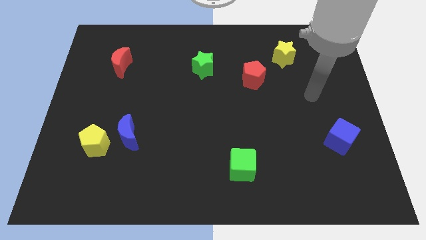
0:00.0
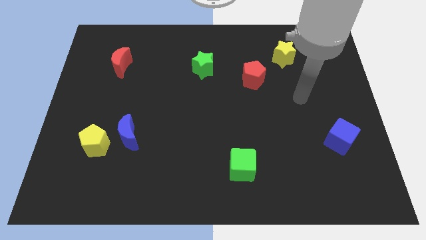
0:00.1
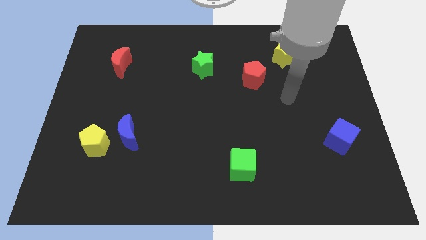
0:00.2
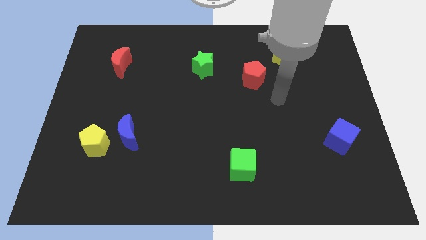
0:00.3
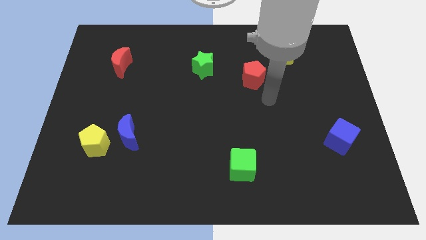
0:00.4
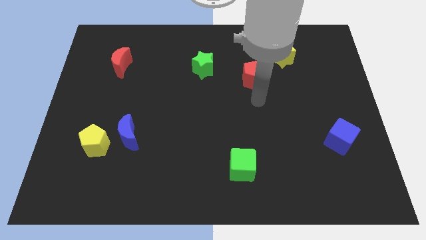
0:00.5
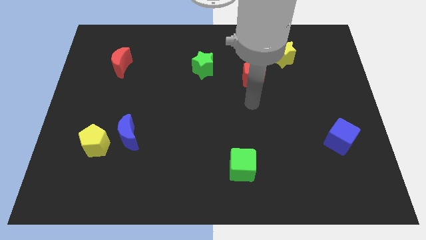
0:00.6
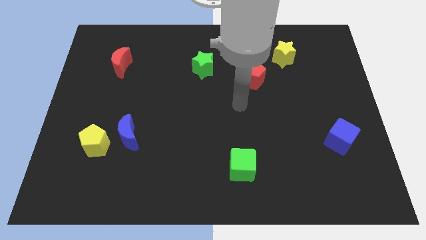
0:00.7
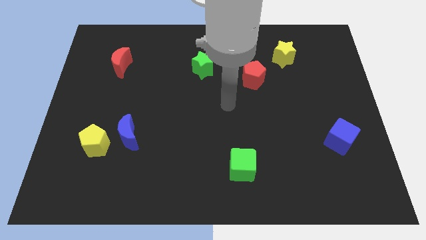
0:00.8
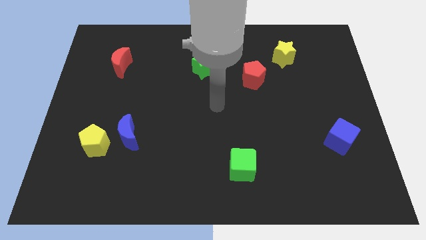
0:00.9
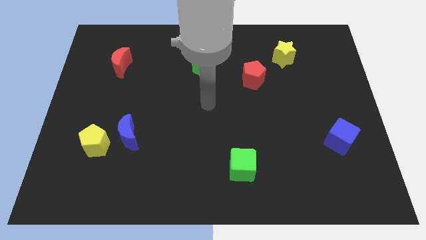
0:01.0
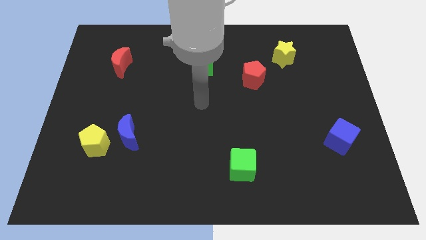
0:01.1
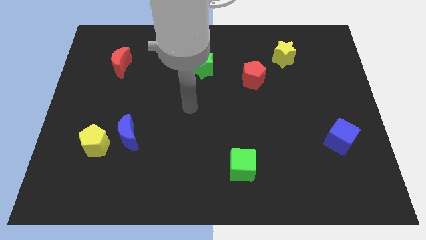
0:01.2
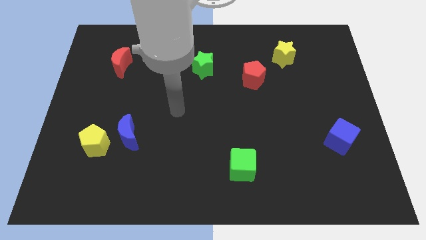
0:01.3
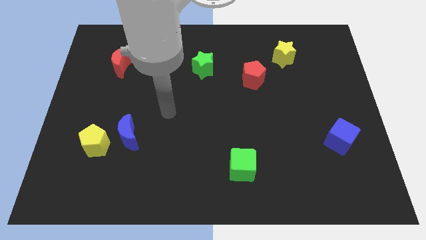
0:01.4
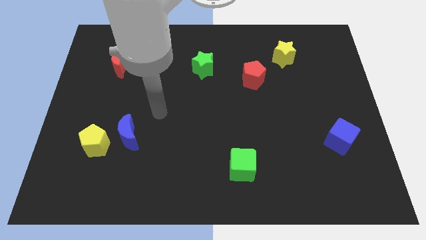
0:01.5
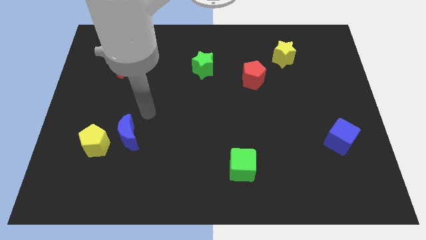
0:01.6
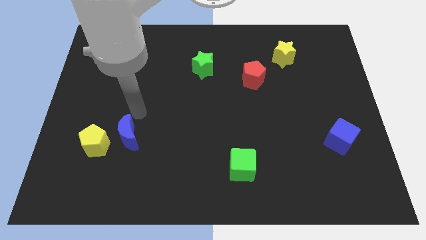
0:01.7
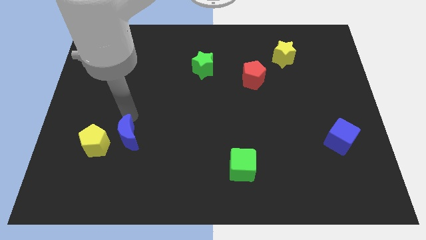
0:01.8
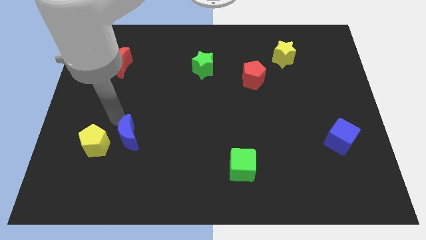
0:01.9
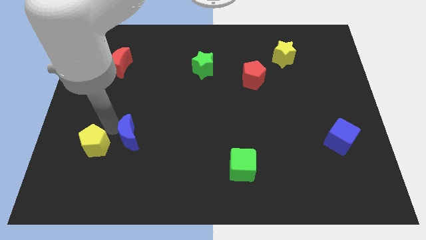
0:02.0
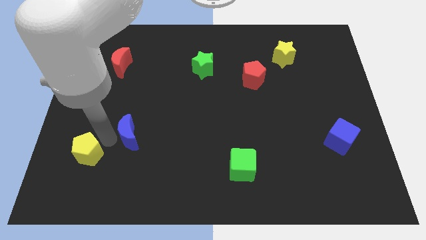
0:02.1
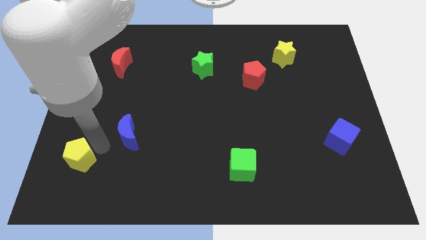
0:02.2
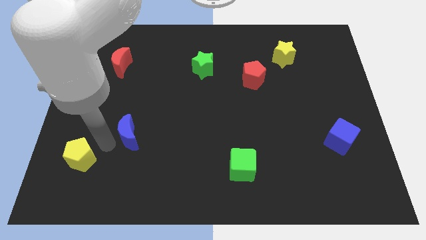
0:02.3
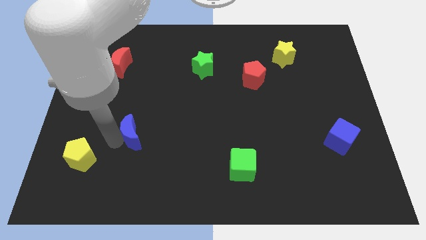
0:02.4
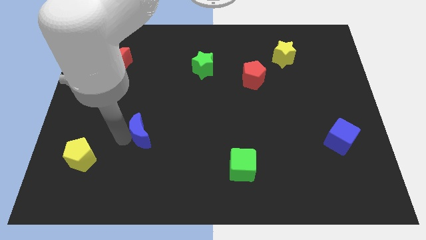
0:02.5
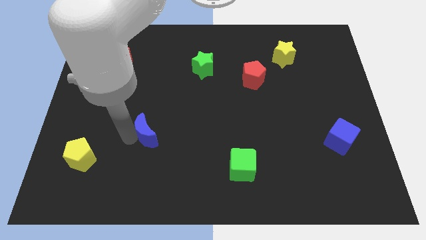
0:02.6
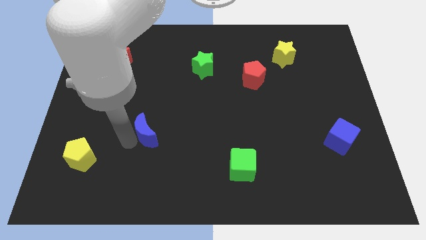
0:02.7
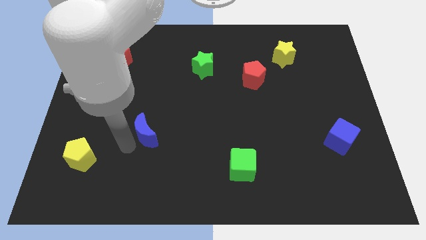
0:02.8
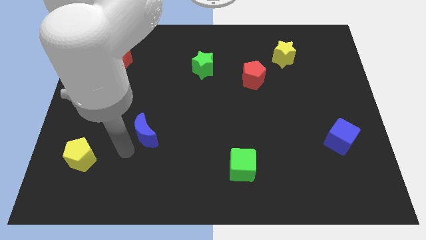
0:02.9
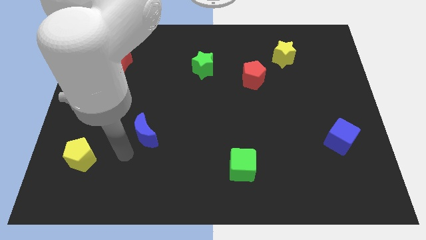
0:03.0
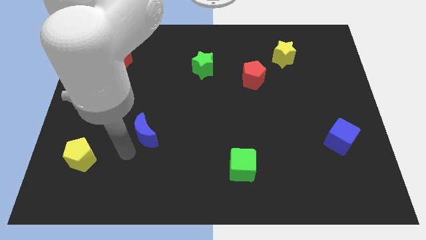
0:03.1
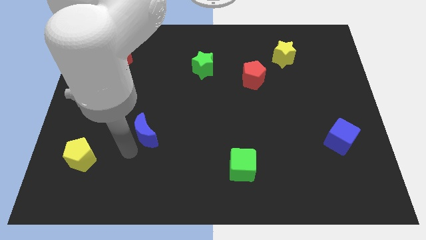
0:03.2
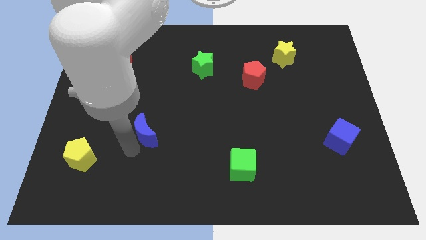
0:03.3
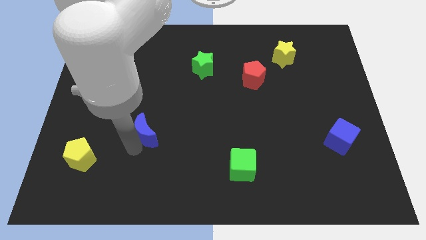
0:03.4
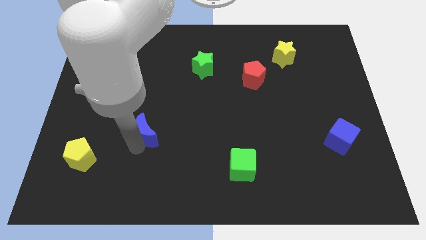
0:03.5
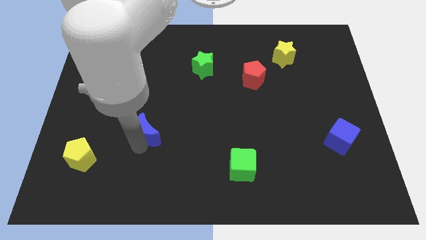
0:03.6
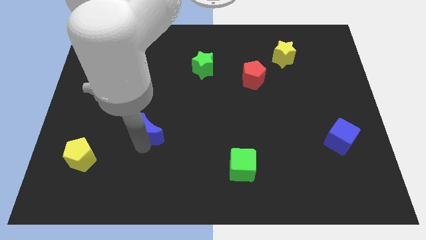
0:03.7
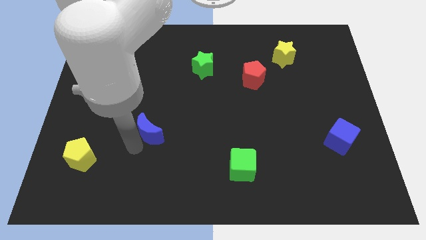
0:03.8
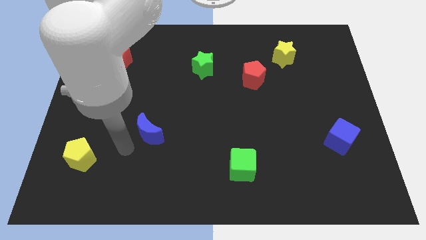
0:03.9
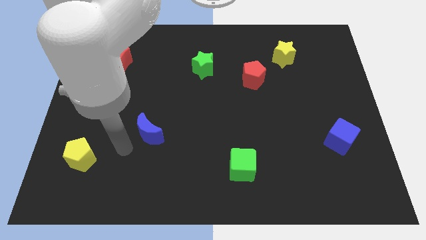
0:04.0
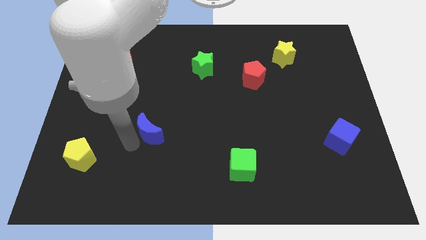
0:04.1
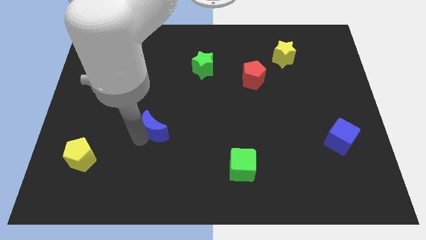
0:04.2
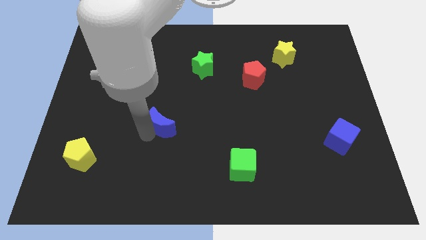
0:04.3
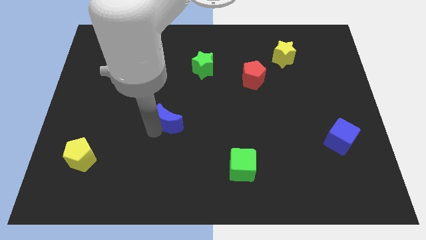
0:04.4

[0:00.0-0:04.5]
put the blue moon to the center

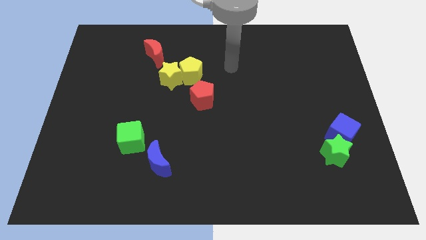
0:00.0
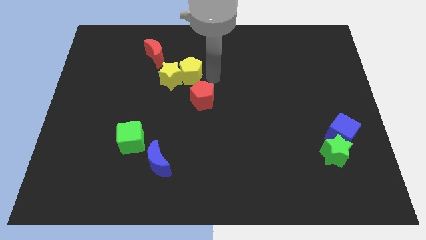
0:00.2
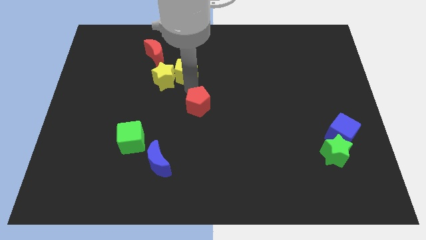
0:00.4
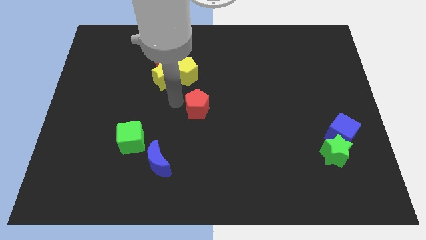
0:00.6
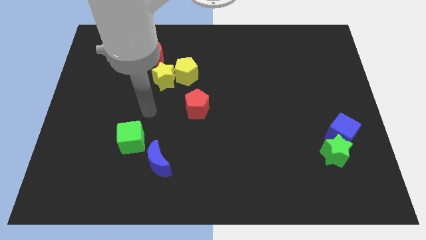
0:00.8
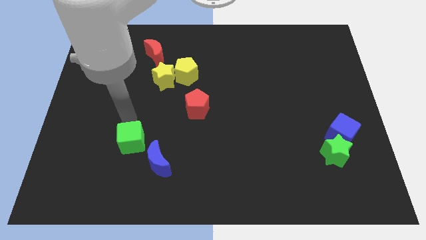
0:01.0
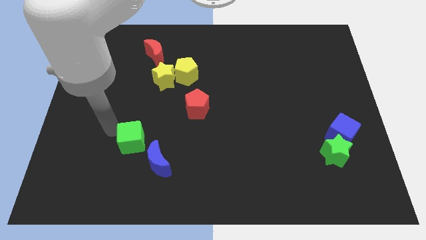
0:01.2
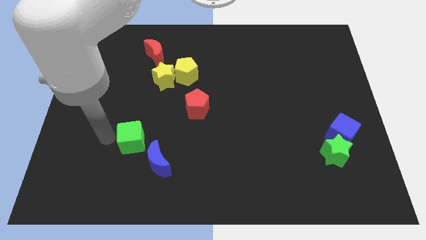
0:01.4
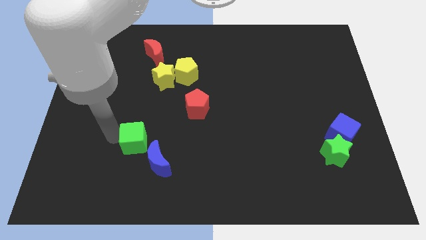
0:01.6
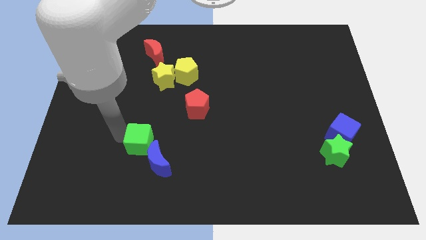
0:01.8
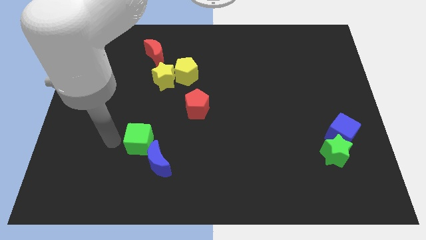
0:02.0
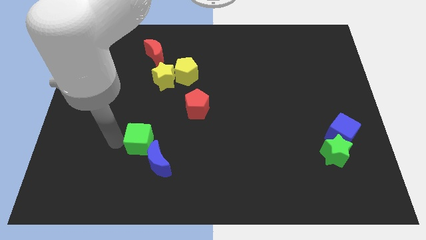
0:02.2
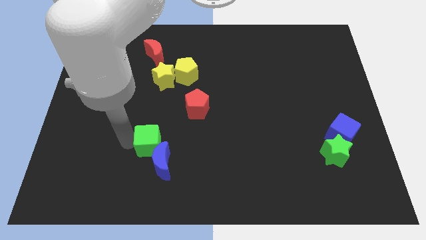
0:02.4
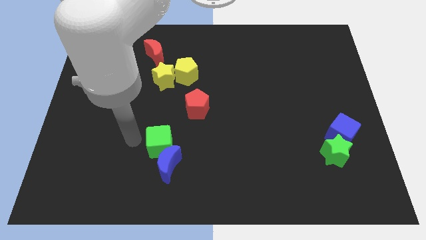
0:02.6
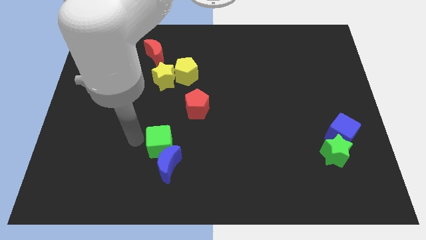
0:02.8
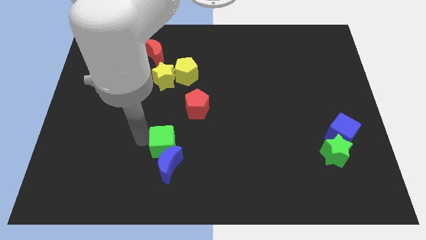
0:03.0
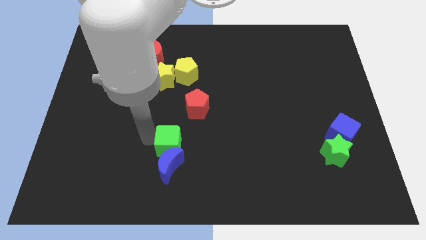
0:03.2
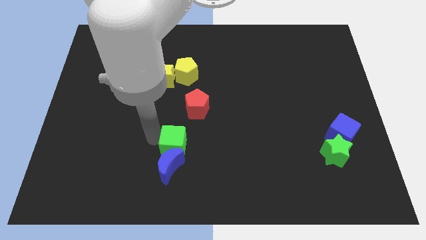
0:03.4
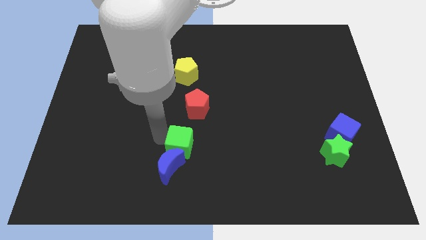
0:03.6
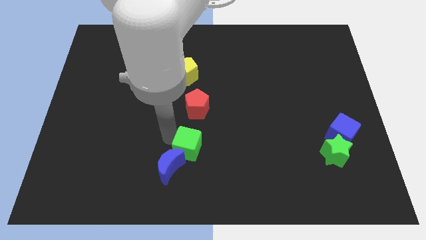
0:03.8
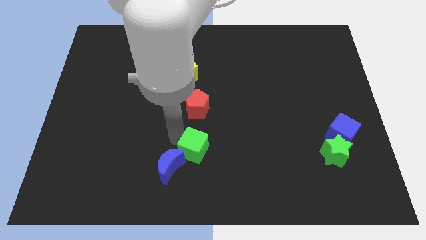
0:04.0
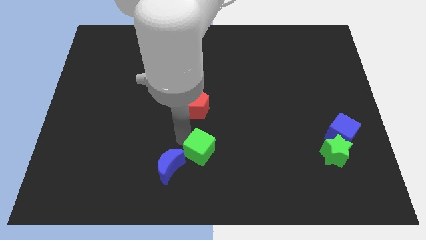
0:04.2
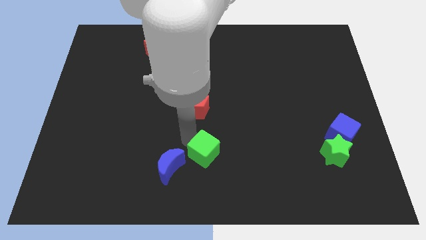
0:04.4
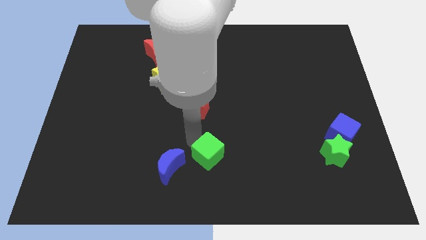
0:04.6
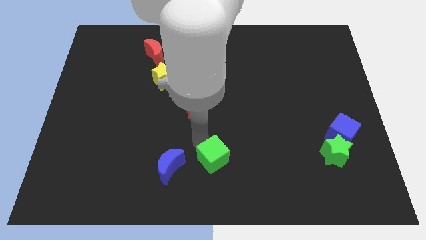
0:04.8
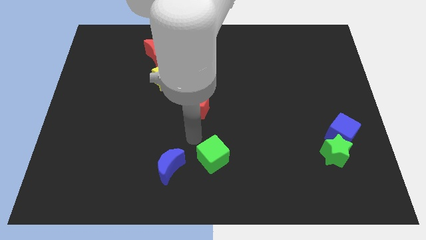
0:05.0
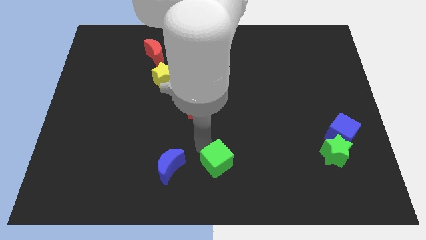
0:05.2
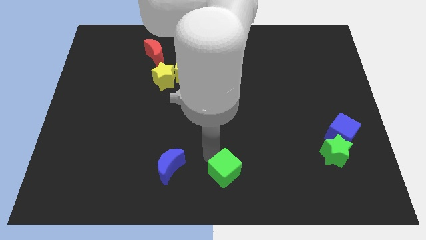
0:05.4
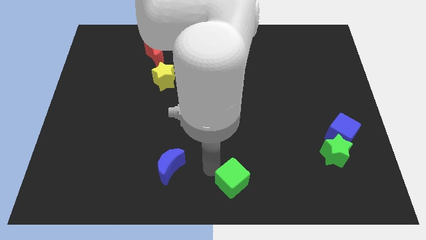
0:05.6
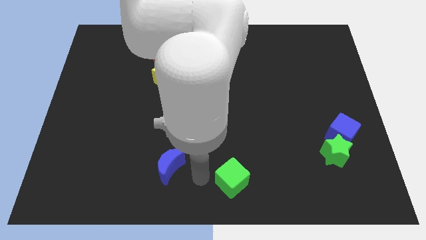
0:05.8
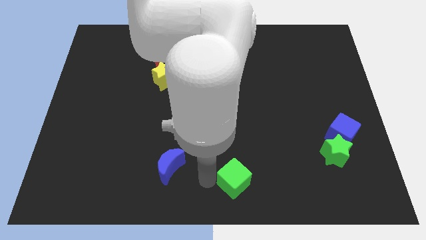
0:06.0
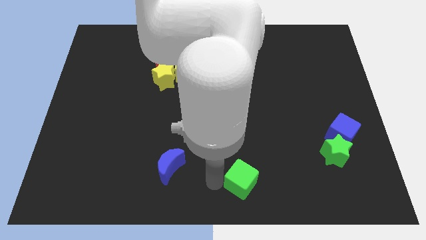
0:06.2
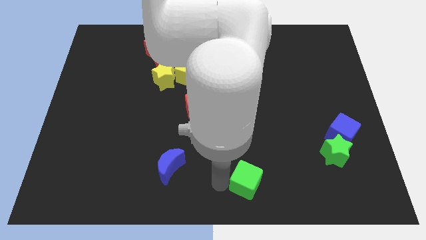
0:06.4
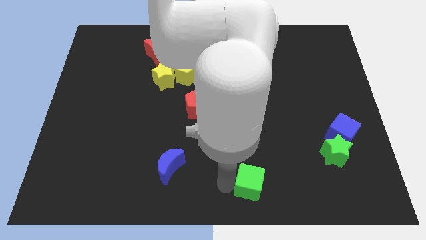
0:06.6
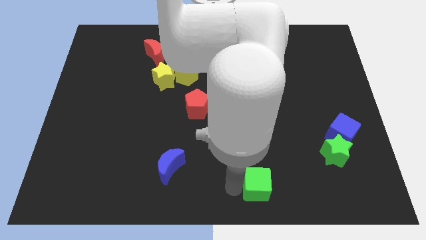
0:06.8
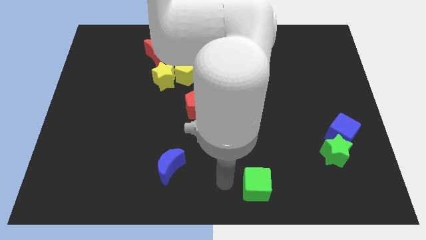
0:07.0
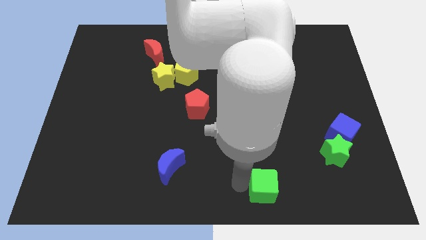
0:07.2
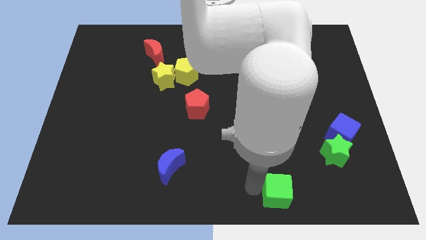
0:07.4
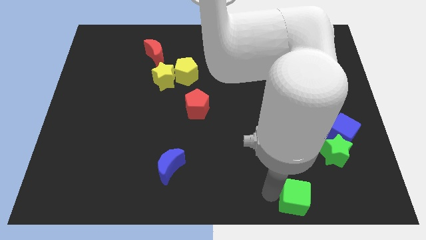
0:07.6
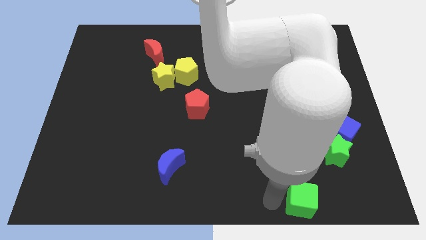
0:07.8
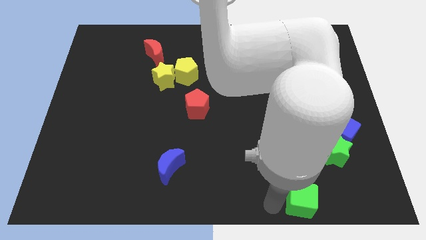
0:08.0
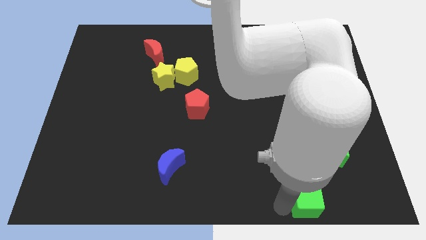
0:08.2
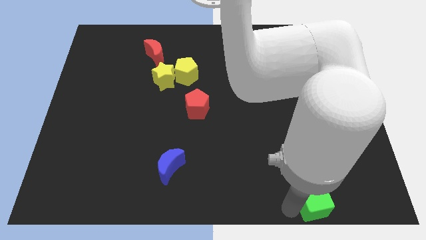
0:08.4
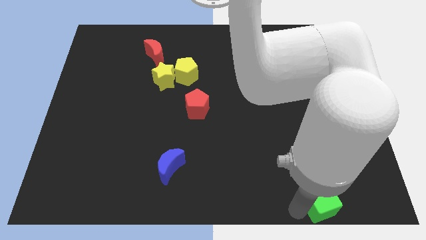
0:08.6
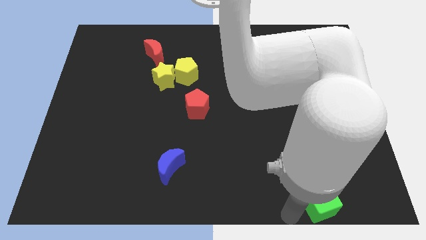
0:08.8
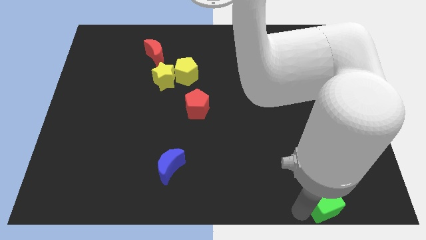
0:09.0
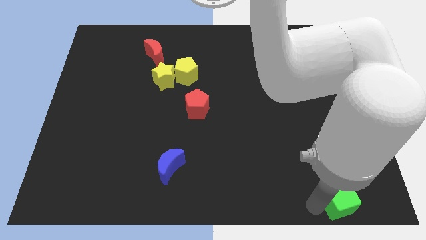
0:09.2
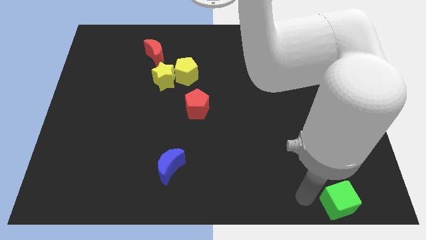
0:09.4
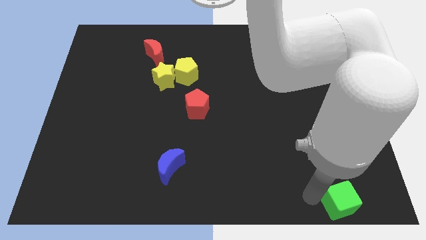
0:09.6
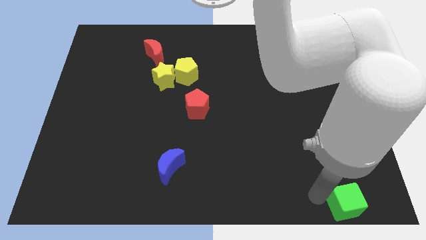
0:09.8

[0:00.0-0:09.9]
slide the green cube to the bottom right corner
